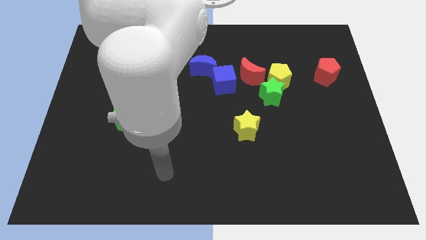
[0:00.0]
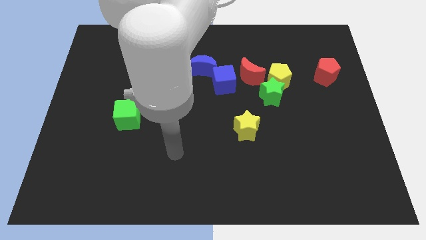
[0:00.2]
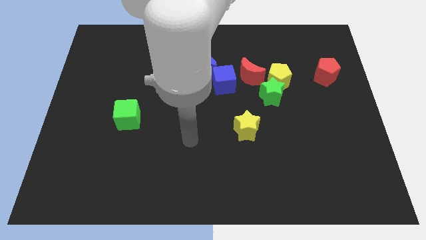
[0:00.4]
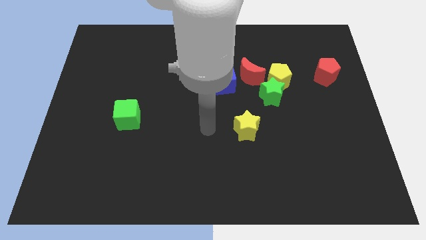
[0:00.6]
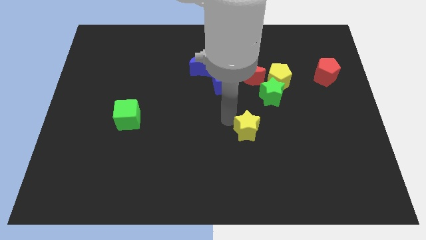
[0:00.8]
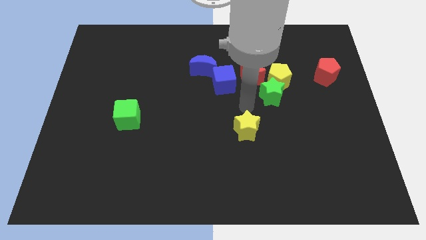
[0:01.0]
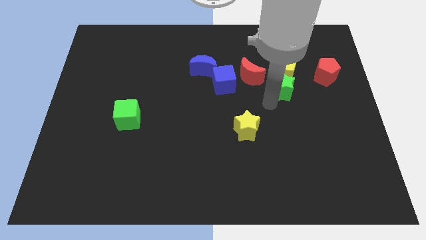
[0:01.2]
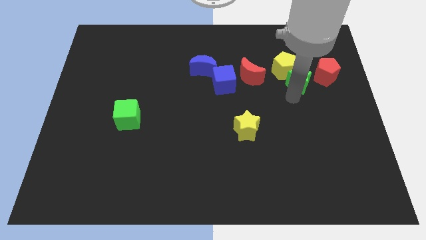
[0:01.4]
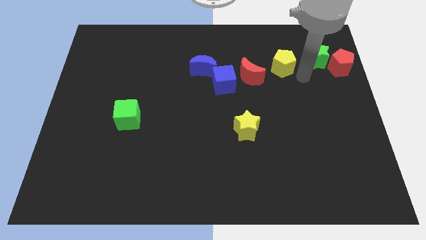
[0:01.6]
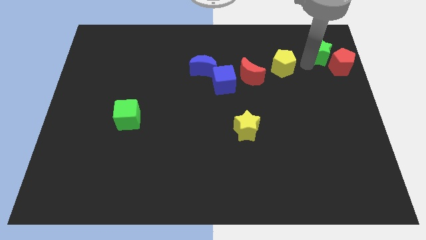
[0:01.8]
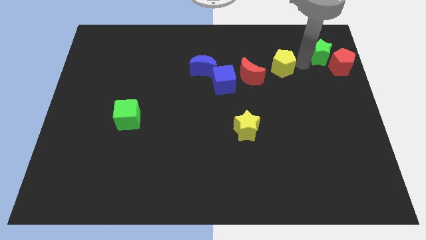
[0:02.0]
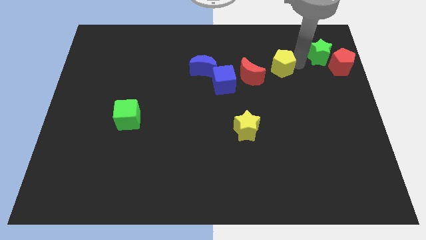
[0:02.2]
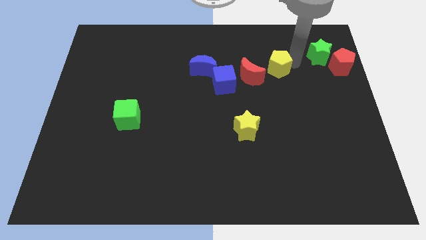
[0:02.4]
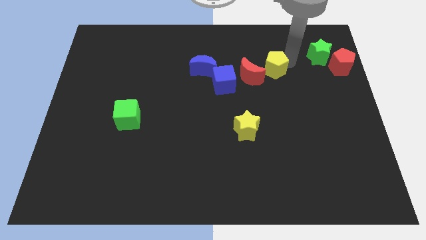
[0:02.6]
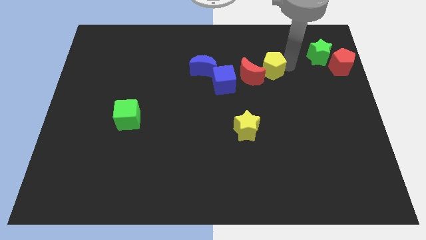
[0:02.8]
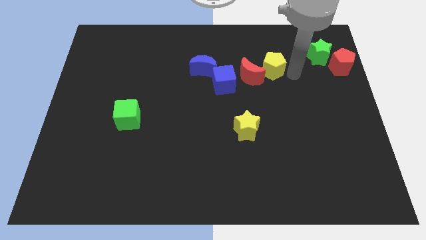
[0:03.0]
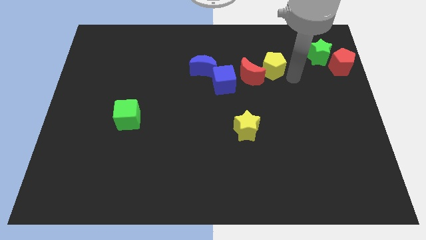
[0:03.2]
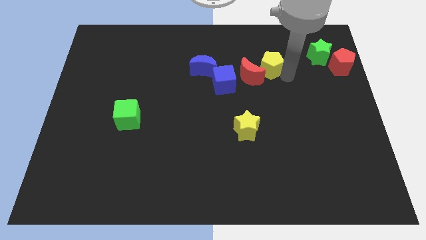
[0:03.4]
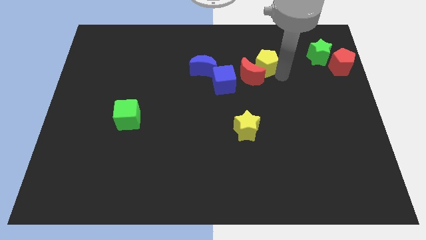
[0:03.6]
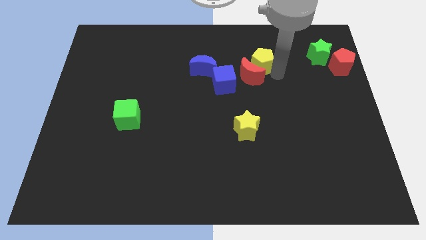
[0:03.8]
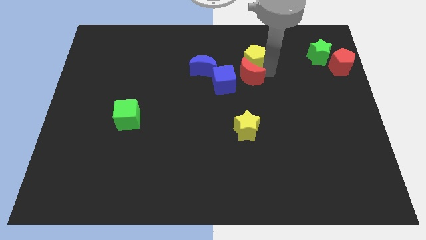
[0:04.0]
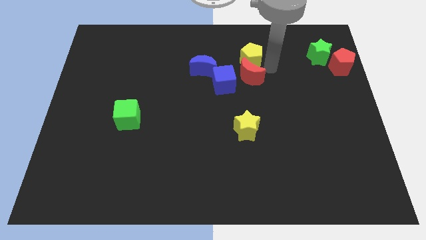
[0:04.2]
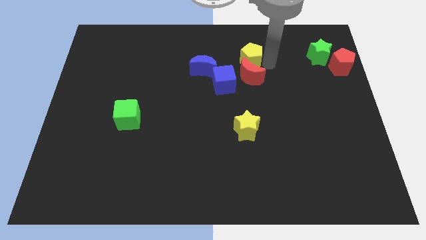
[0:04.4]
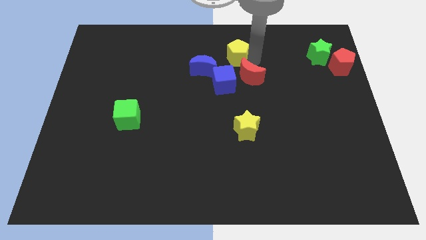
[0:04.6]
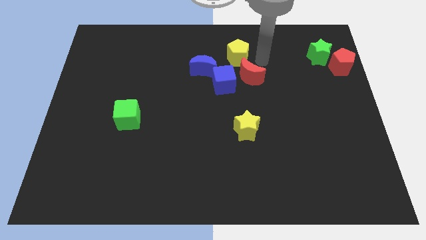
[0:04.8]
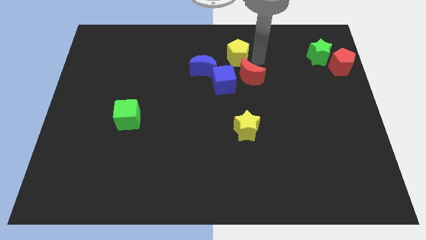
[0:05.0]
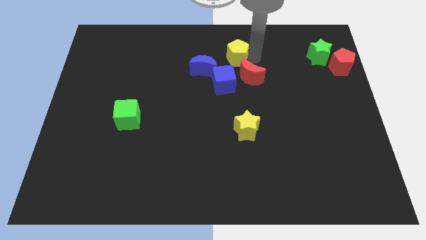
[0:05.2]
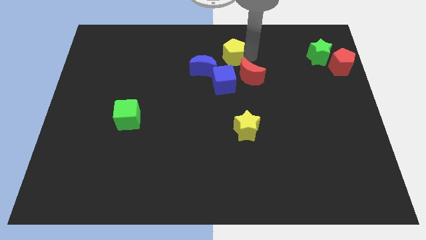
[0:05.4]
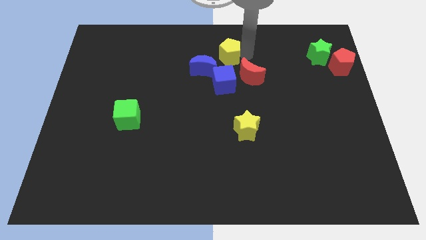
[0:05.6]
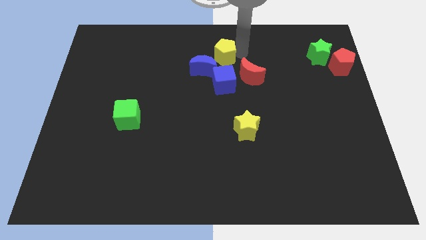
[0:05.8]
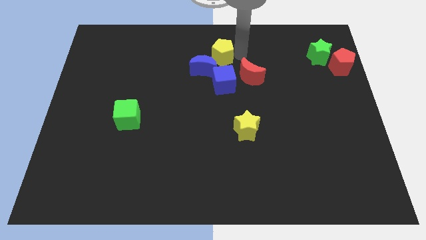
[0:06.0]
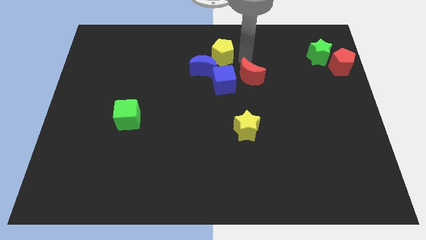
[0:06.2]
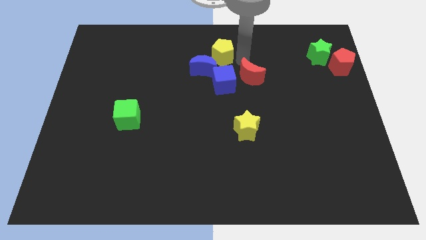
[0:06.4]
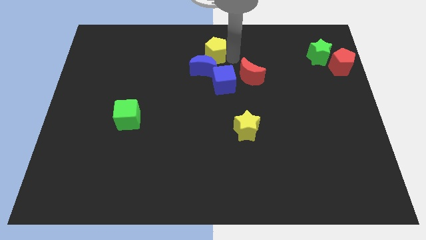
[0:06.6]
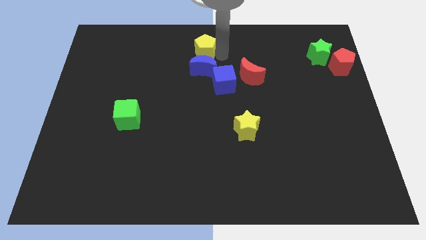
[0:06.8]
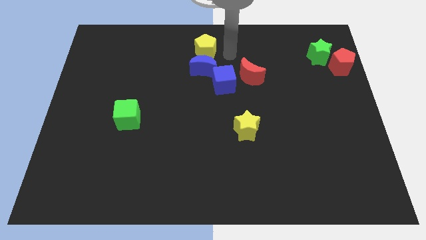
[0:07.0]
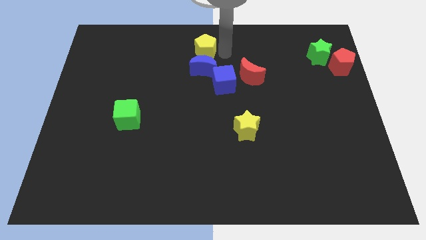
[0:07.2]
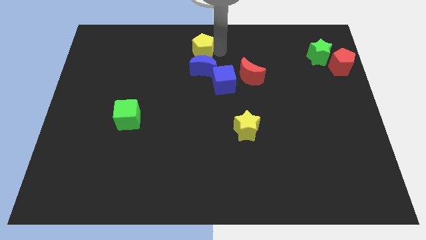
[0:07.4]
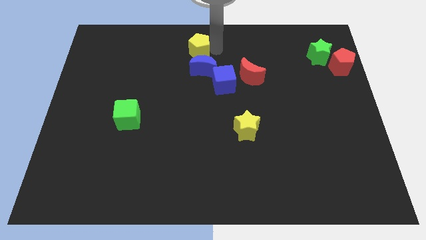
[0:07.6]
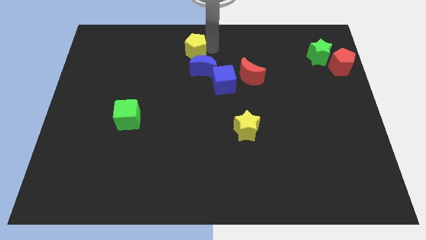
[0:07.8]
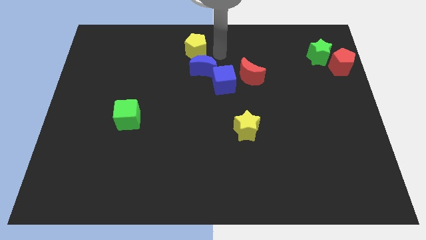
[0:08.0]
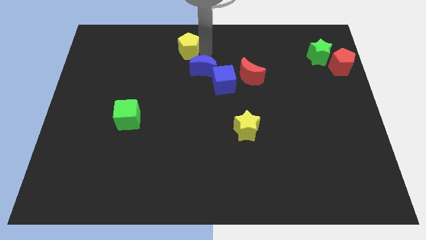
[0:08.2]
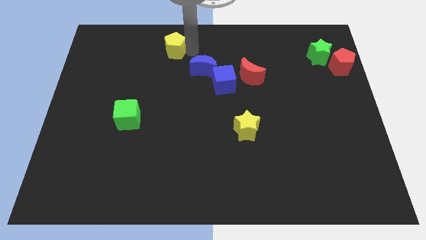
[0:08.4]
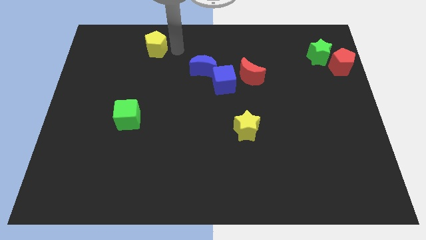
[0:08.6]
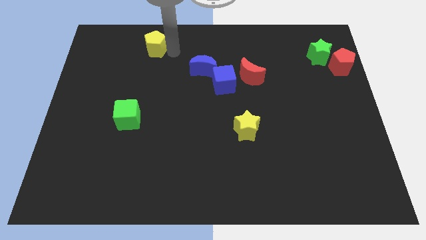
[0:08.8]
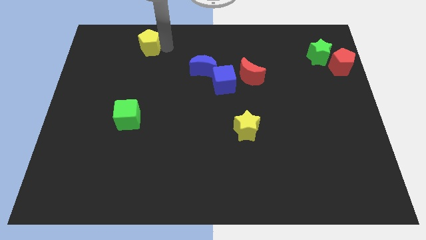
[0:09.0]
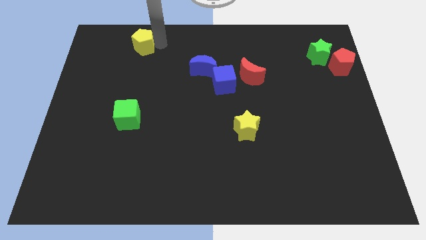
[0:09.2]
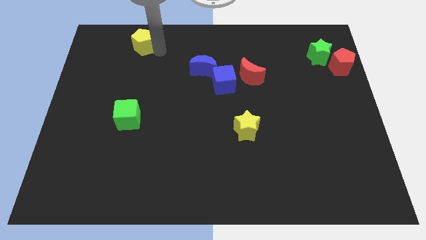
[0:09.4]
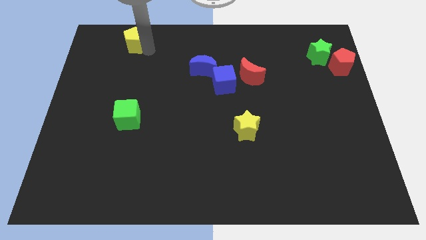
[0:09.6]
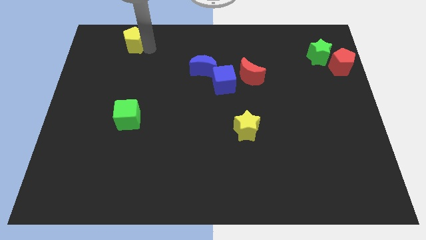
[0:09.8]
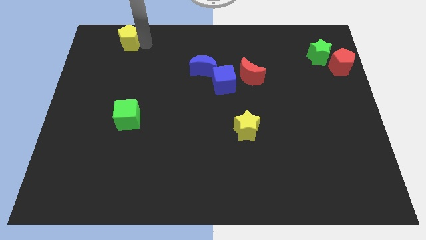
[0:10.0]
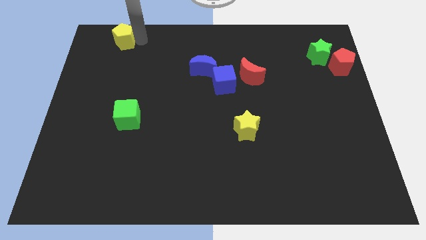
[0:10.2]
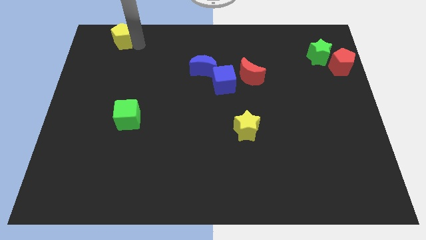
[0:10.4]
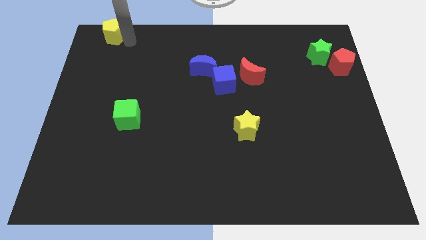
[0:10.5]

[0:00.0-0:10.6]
put the yellow pentagon to the upper left corner

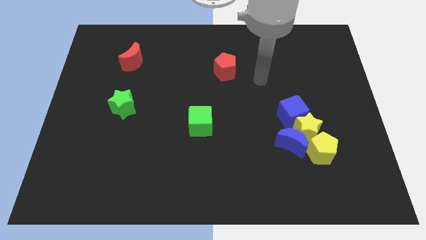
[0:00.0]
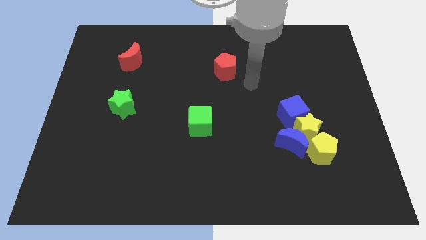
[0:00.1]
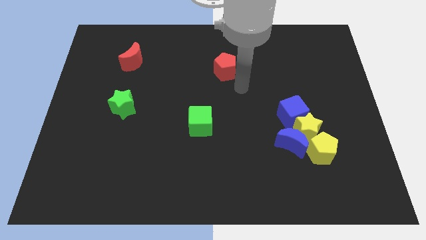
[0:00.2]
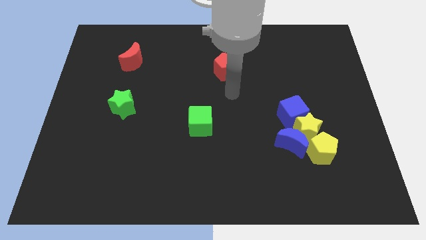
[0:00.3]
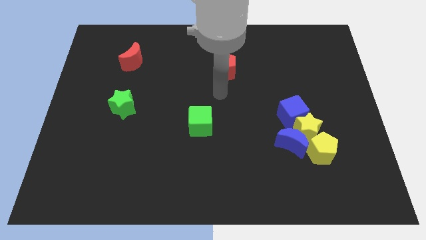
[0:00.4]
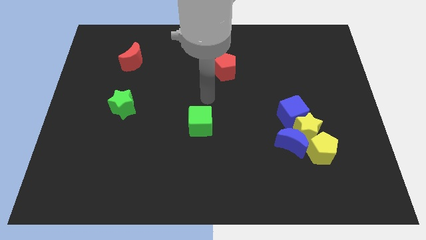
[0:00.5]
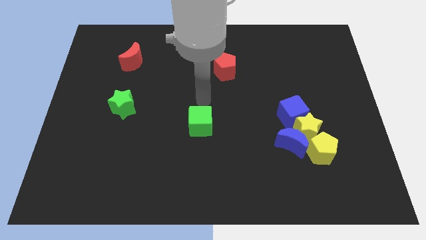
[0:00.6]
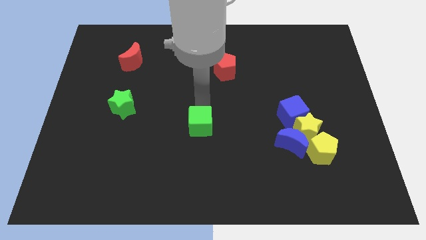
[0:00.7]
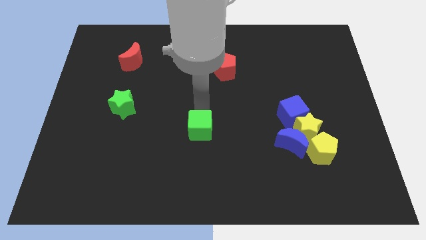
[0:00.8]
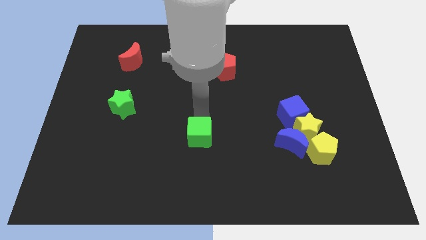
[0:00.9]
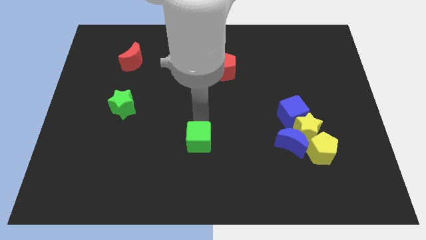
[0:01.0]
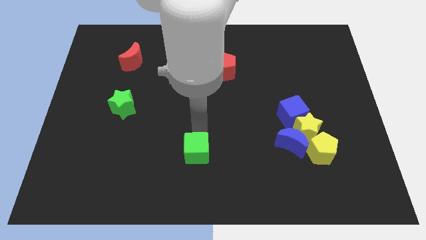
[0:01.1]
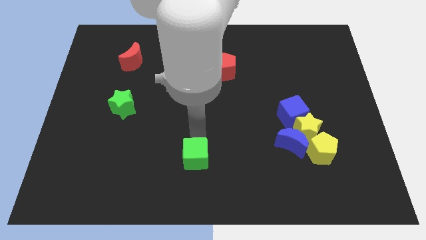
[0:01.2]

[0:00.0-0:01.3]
push the green cube to the bottom
